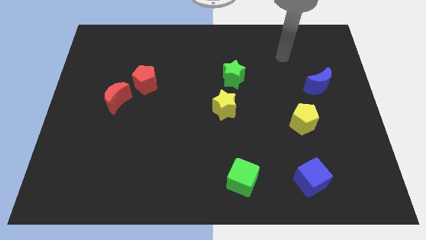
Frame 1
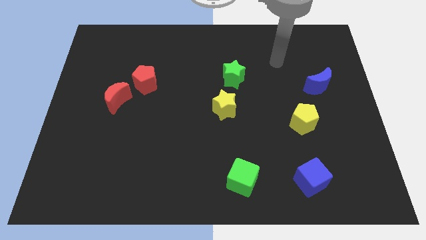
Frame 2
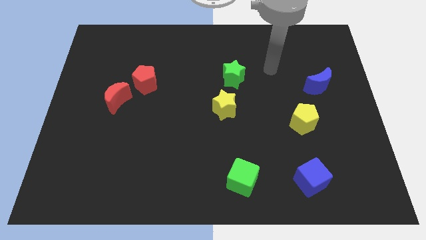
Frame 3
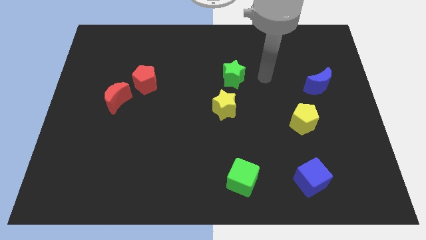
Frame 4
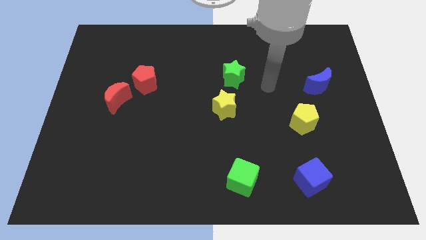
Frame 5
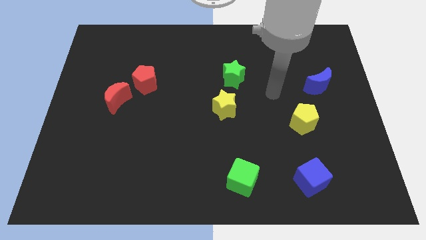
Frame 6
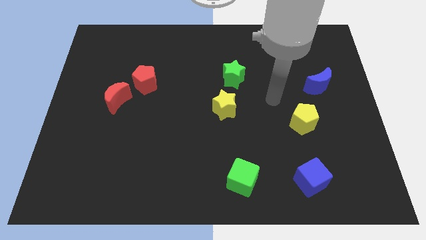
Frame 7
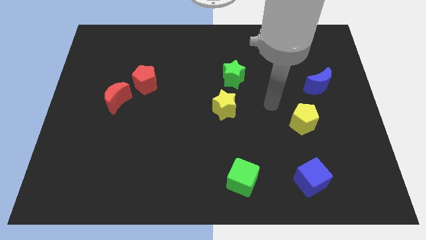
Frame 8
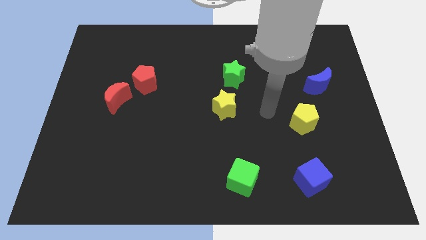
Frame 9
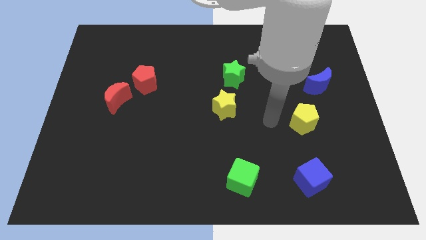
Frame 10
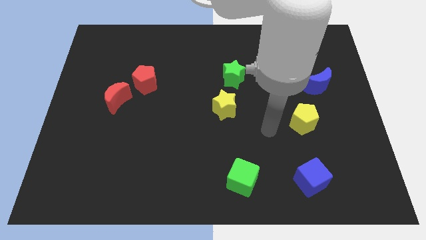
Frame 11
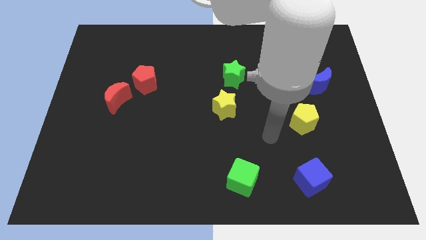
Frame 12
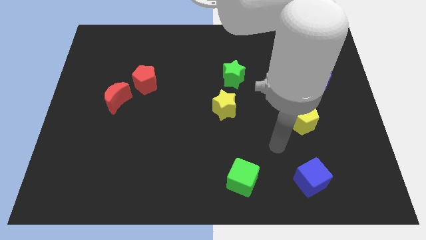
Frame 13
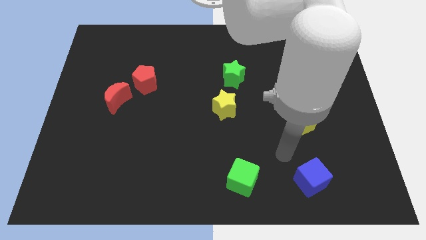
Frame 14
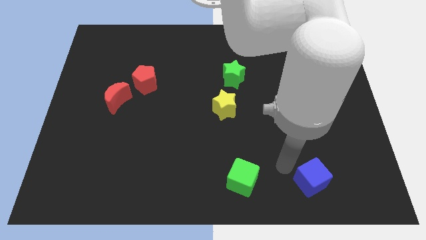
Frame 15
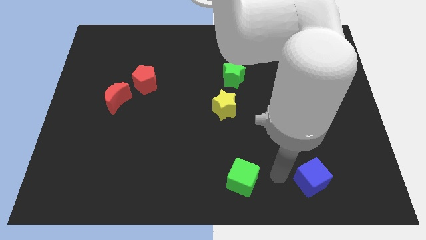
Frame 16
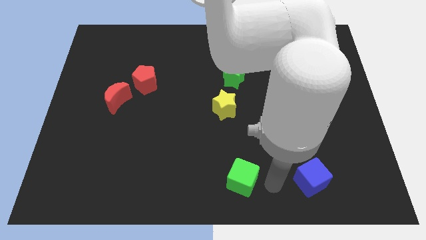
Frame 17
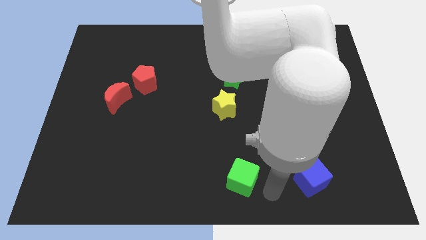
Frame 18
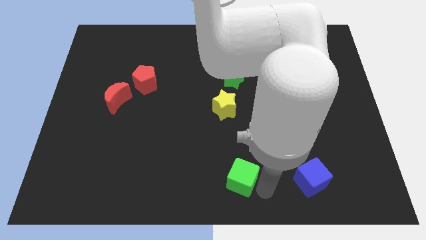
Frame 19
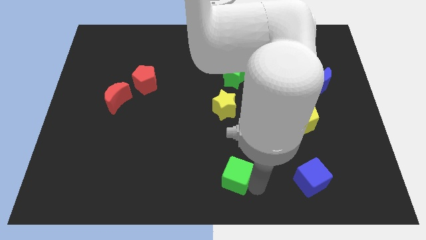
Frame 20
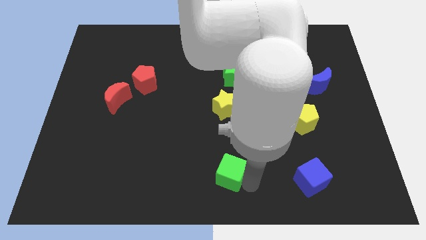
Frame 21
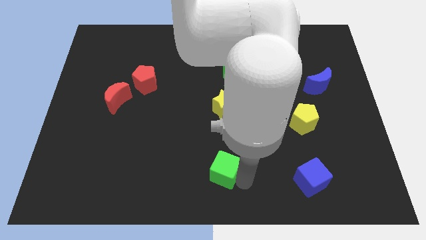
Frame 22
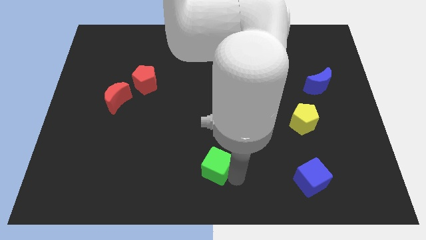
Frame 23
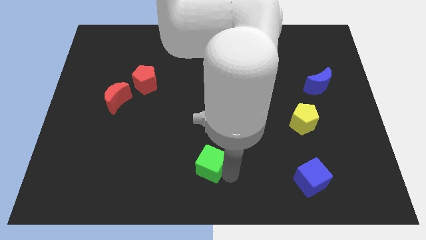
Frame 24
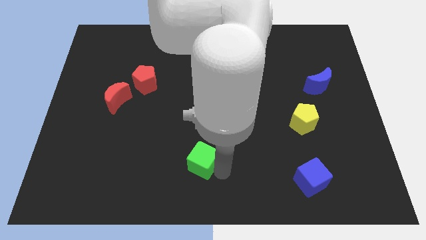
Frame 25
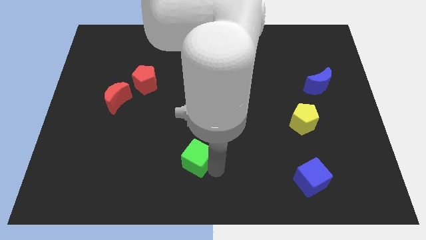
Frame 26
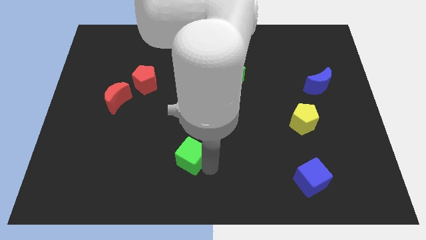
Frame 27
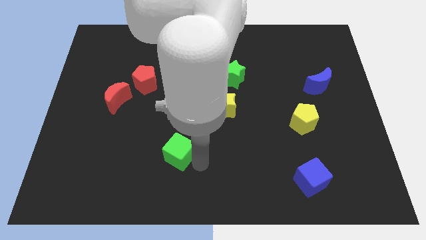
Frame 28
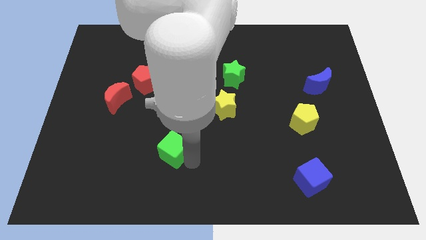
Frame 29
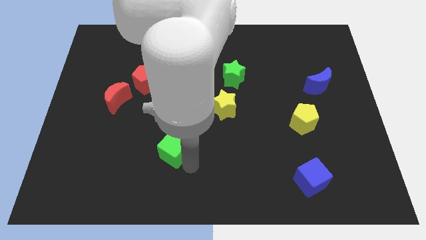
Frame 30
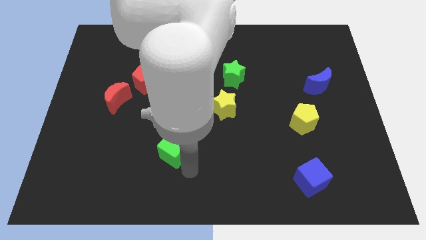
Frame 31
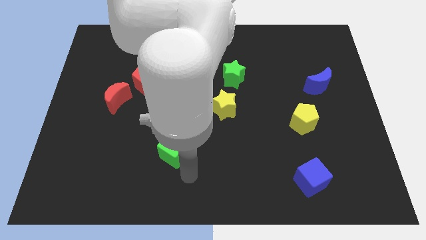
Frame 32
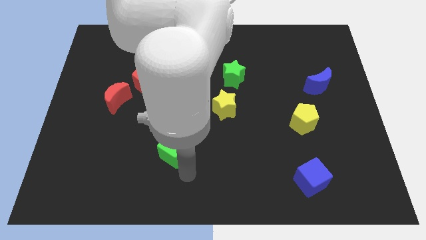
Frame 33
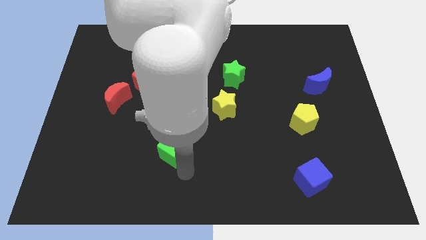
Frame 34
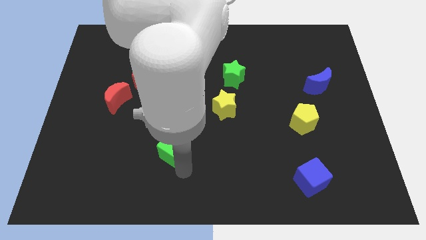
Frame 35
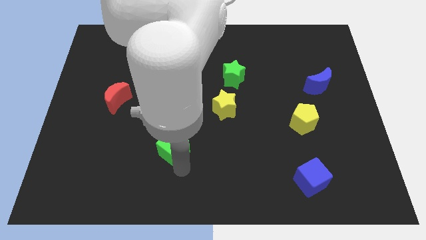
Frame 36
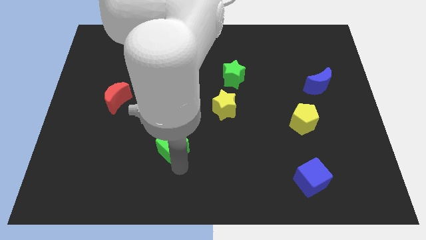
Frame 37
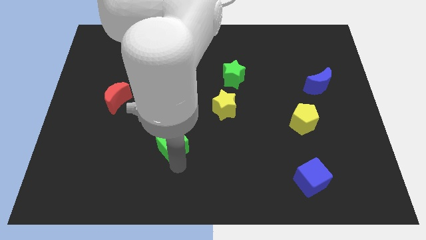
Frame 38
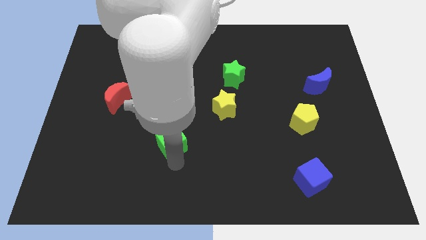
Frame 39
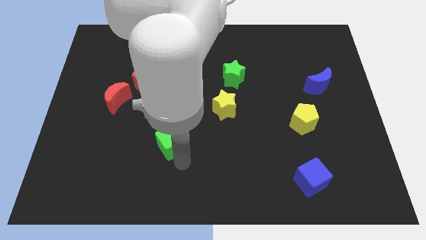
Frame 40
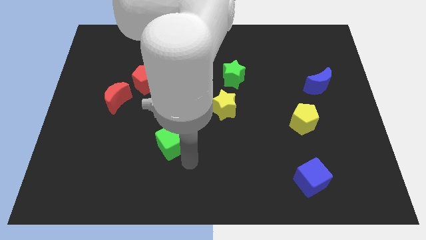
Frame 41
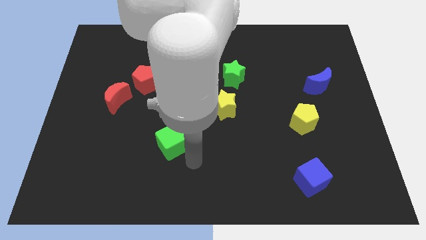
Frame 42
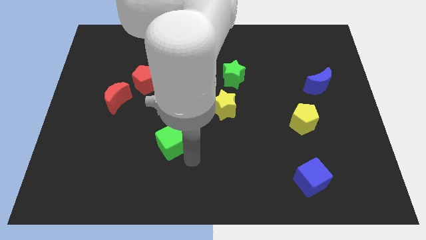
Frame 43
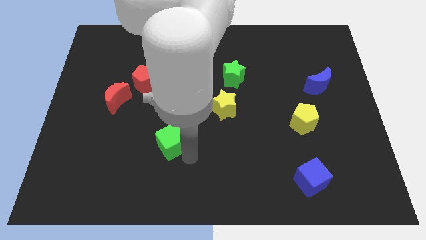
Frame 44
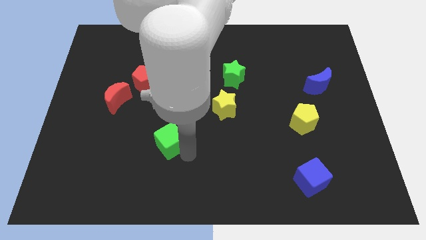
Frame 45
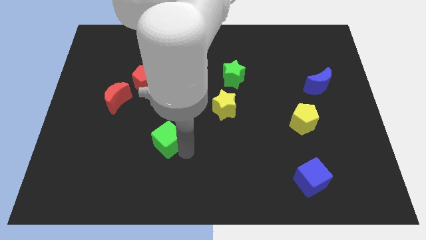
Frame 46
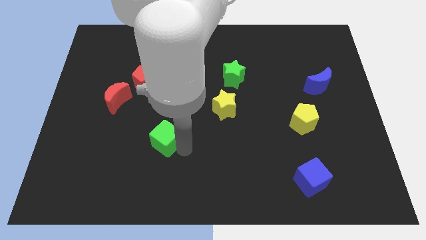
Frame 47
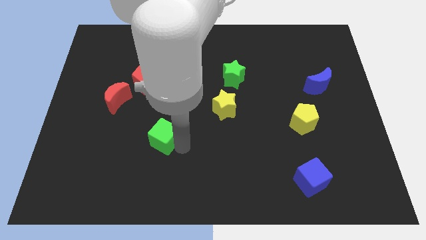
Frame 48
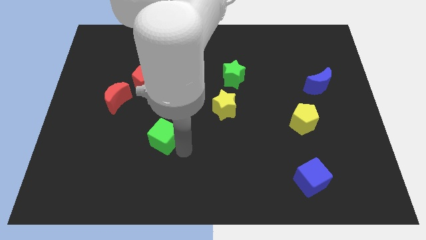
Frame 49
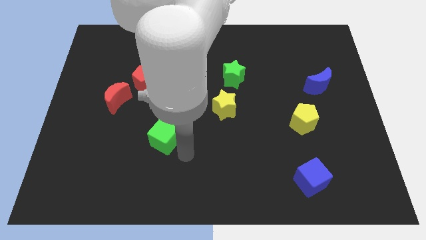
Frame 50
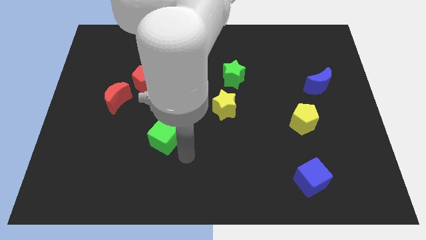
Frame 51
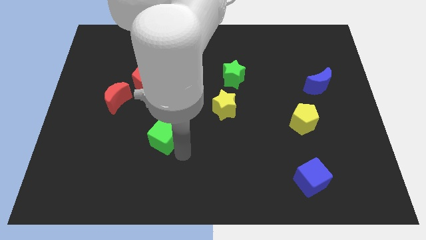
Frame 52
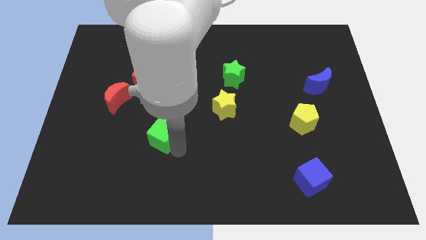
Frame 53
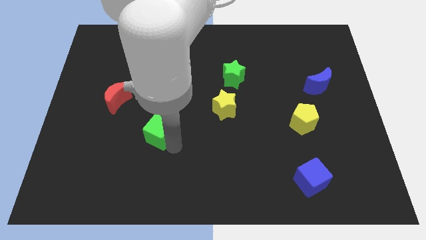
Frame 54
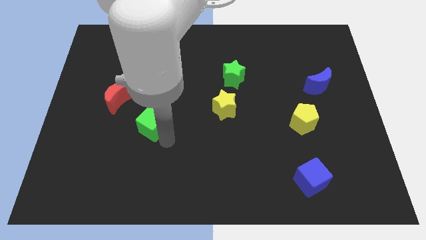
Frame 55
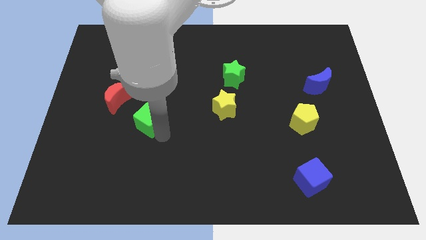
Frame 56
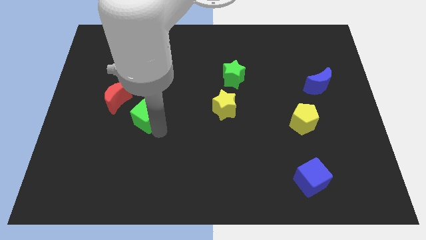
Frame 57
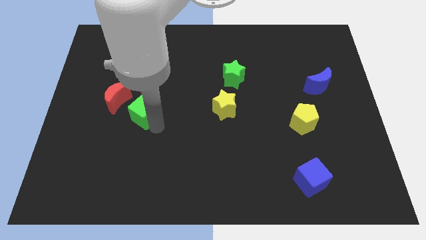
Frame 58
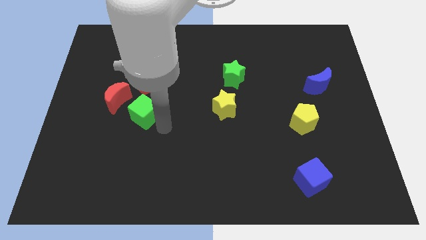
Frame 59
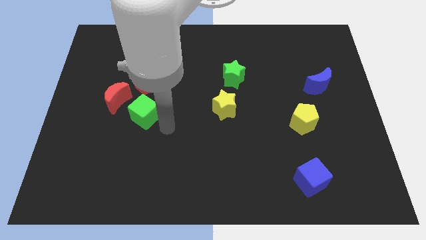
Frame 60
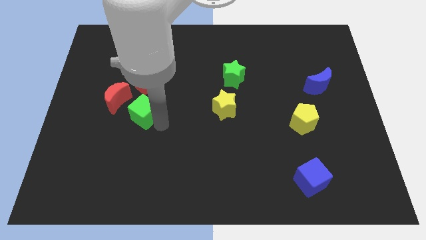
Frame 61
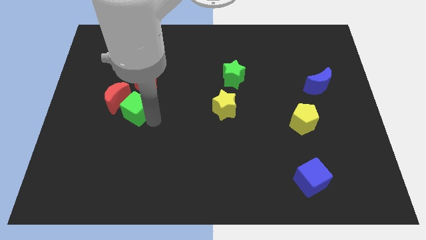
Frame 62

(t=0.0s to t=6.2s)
move the green cube to the red moon

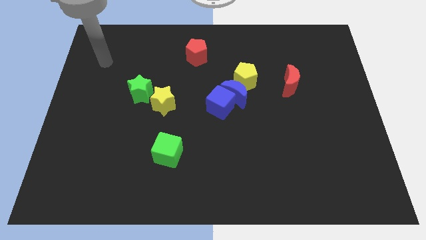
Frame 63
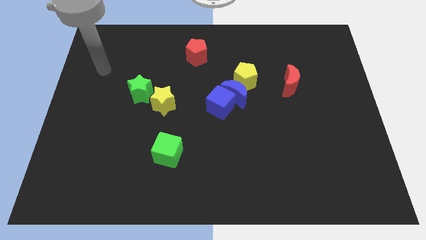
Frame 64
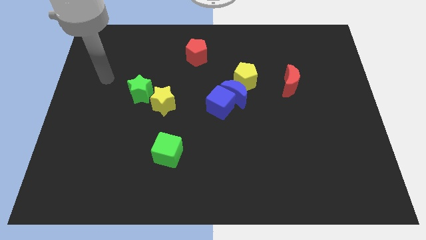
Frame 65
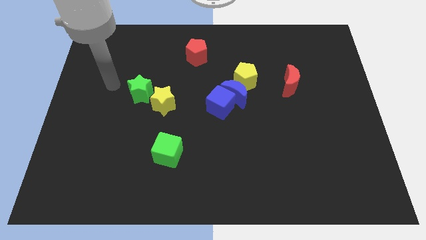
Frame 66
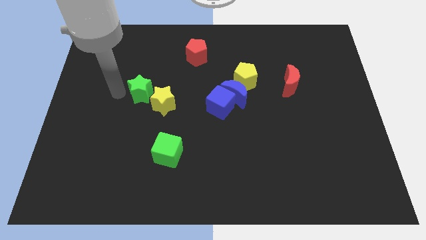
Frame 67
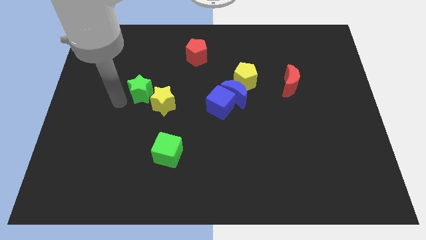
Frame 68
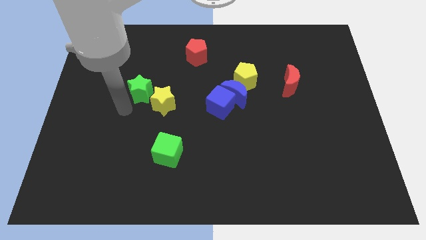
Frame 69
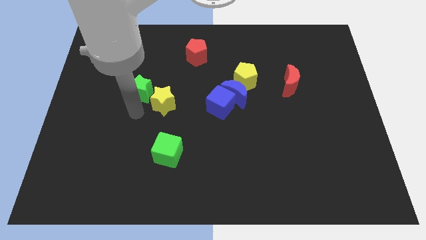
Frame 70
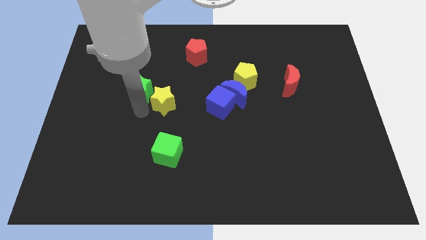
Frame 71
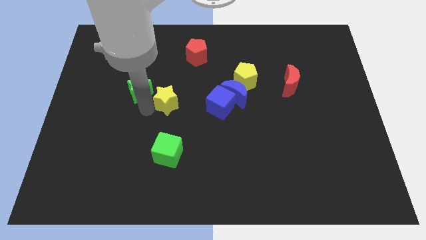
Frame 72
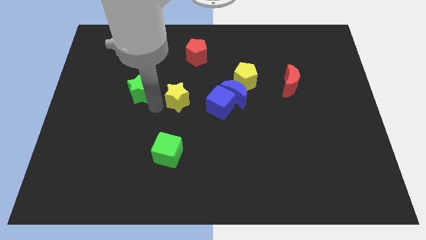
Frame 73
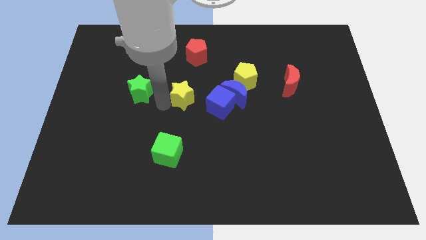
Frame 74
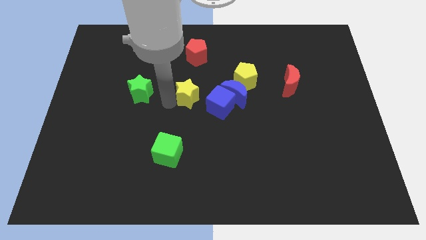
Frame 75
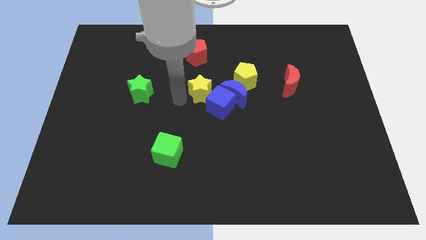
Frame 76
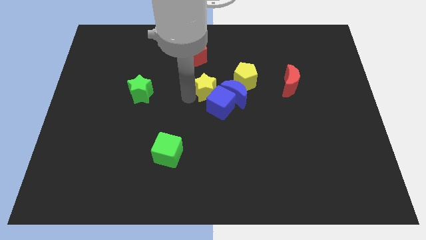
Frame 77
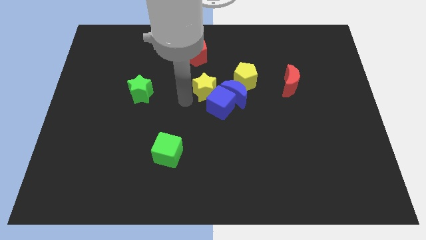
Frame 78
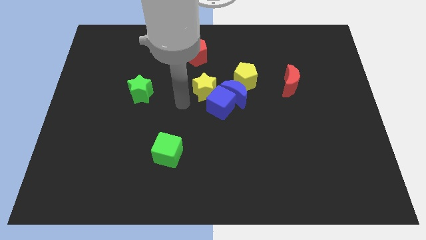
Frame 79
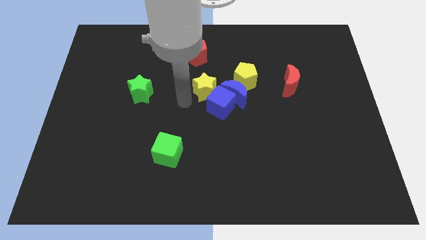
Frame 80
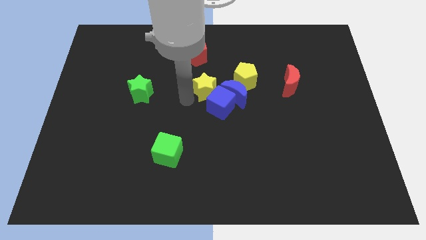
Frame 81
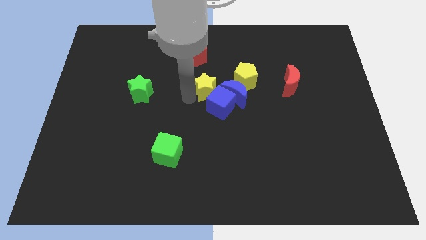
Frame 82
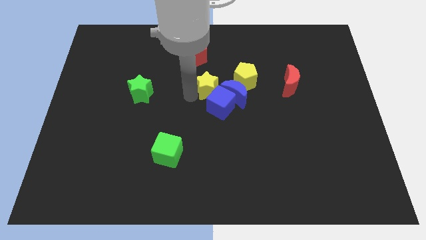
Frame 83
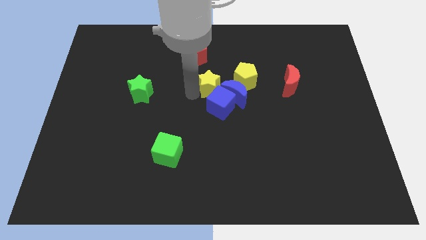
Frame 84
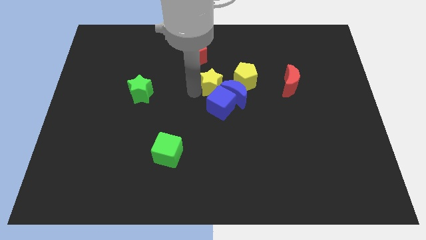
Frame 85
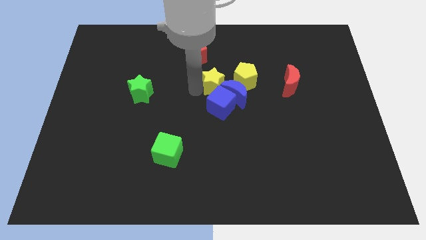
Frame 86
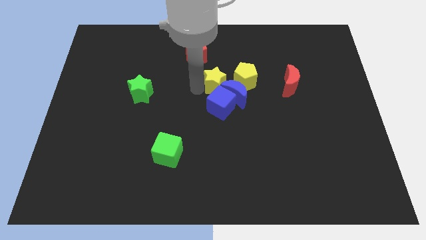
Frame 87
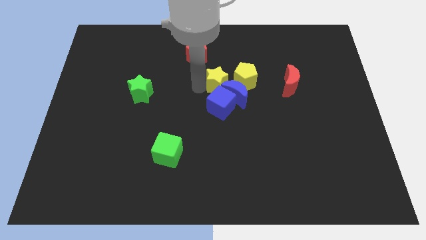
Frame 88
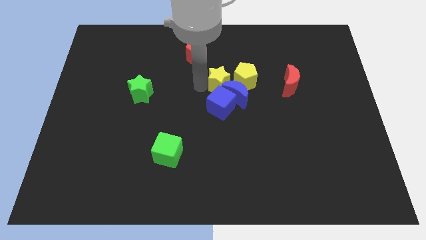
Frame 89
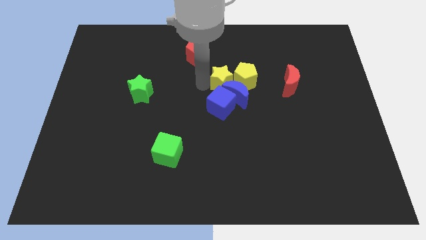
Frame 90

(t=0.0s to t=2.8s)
put the yellow star towards the yellow pentagon
